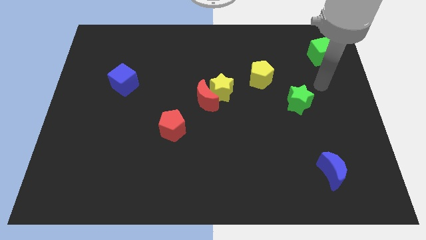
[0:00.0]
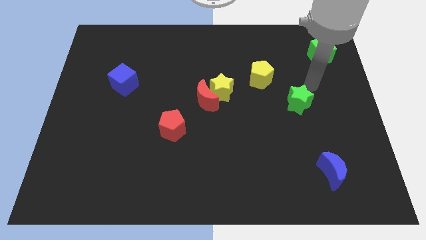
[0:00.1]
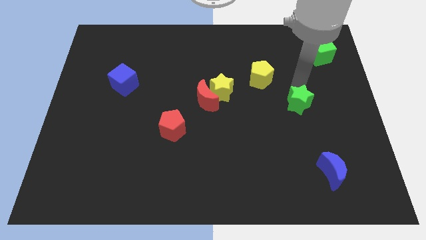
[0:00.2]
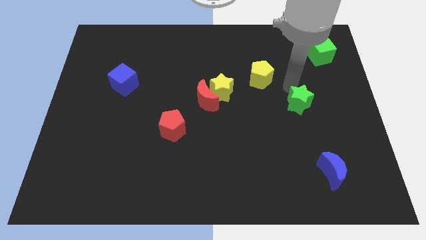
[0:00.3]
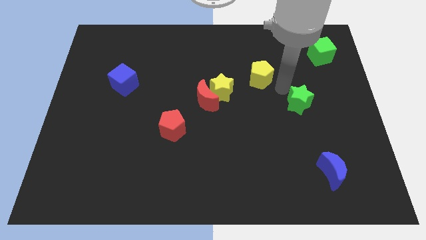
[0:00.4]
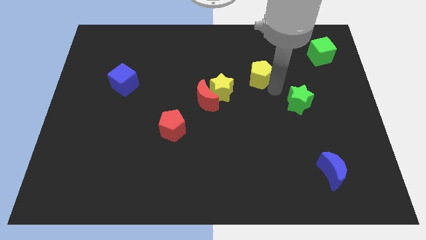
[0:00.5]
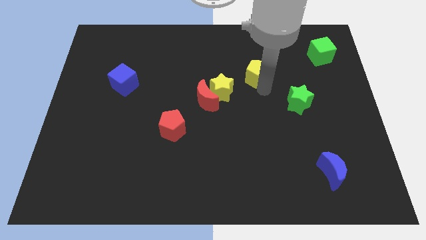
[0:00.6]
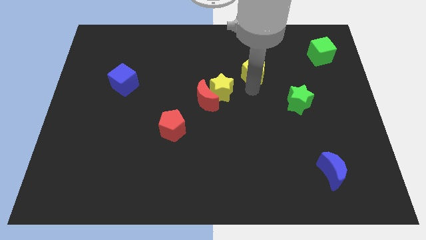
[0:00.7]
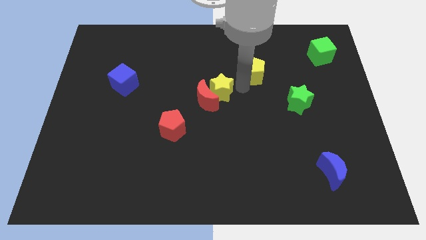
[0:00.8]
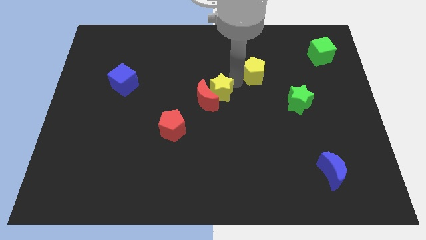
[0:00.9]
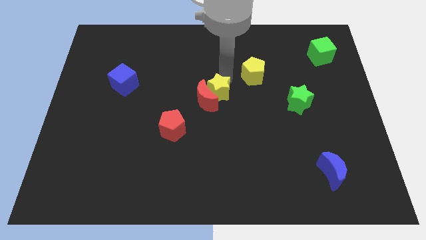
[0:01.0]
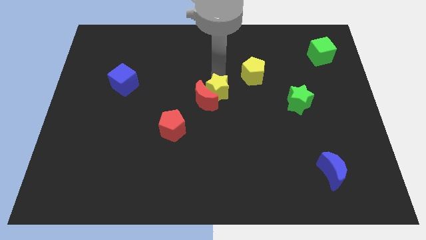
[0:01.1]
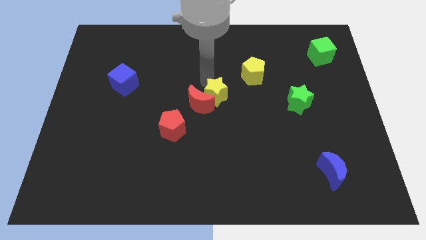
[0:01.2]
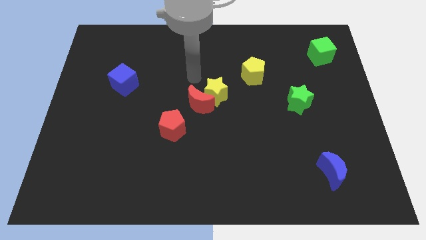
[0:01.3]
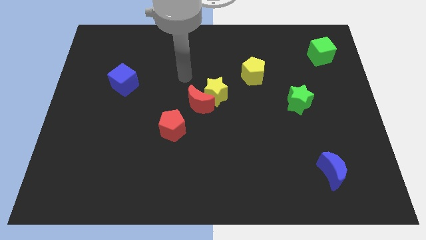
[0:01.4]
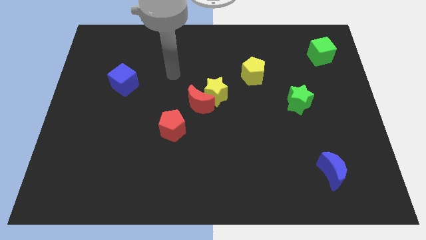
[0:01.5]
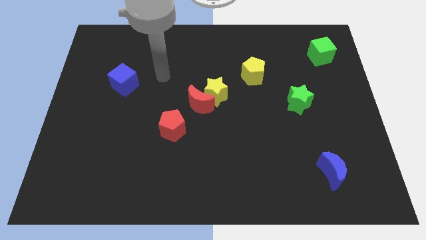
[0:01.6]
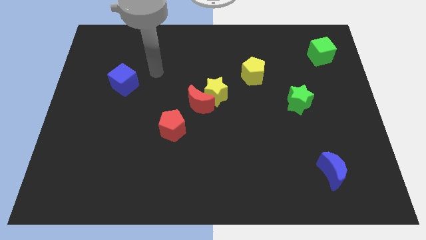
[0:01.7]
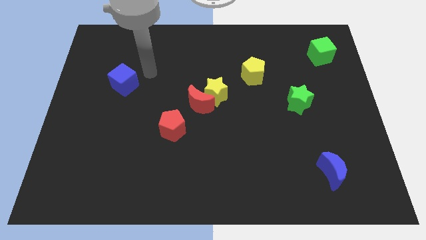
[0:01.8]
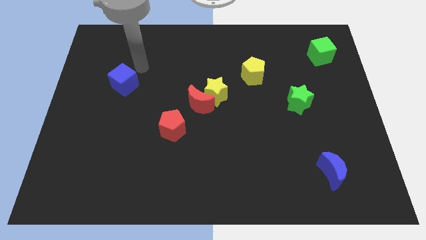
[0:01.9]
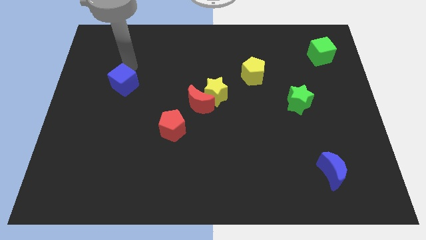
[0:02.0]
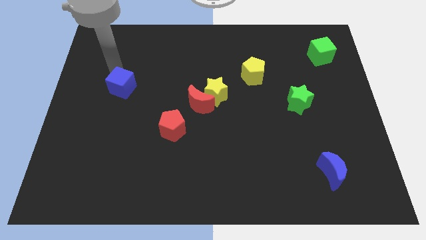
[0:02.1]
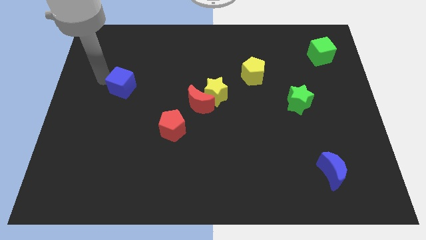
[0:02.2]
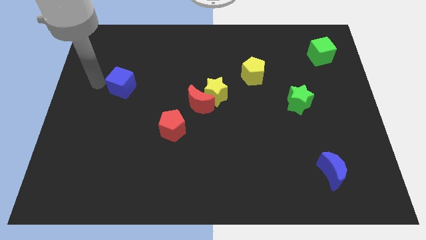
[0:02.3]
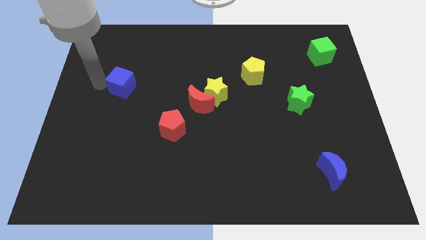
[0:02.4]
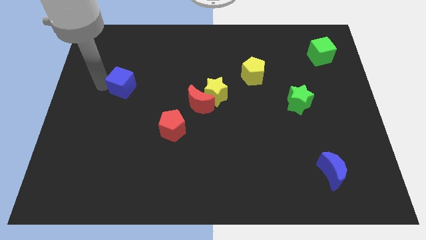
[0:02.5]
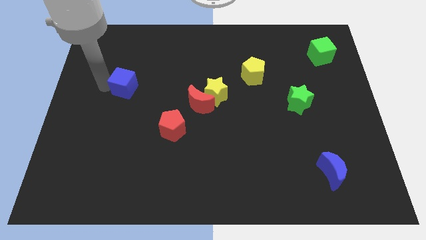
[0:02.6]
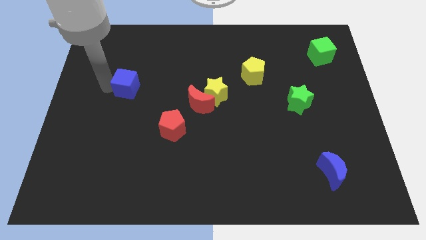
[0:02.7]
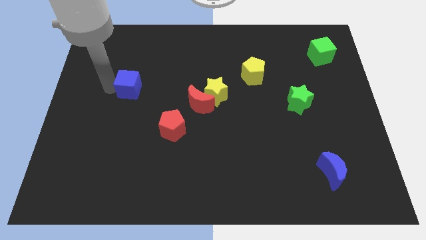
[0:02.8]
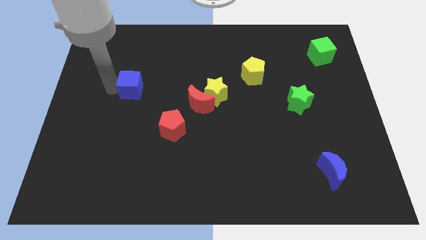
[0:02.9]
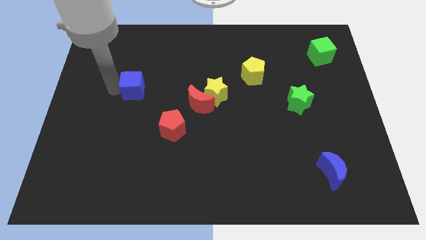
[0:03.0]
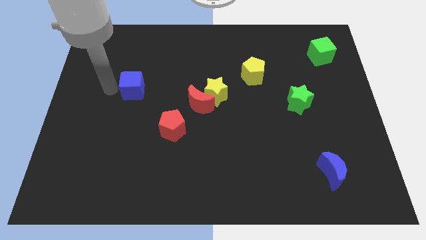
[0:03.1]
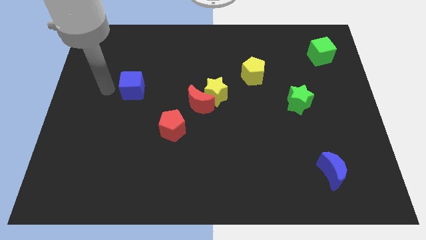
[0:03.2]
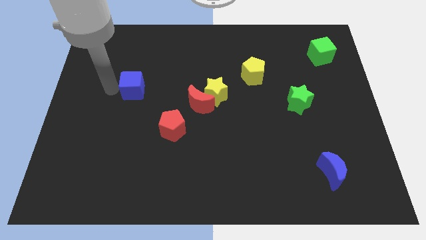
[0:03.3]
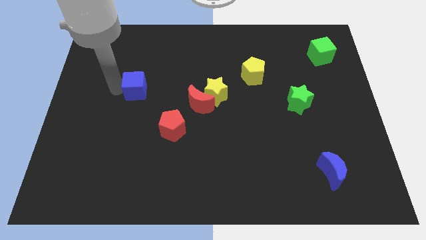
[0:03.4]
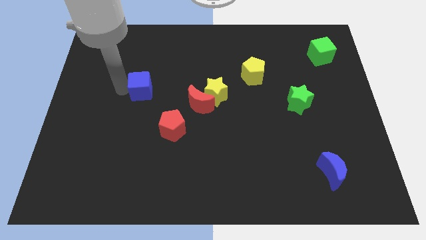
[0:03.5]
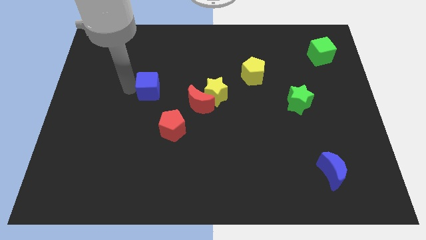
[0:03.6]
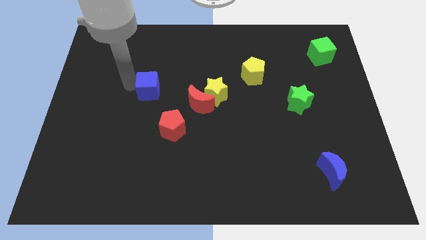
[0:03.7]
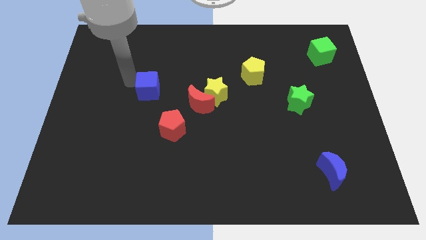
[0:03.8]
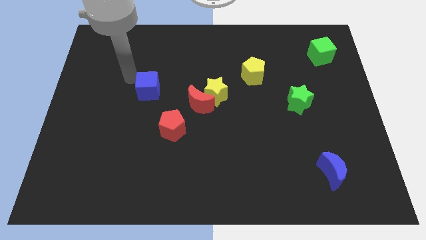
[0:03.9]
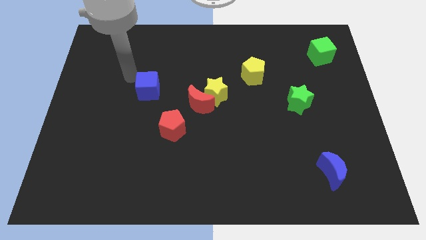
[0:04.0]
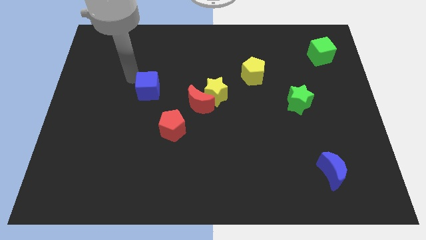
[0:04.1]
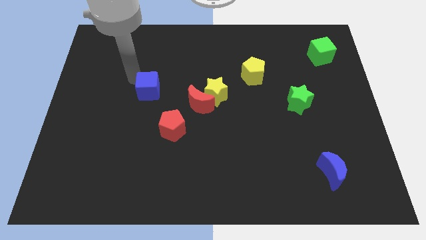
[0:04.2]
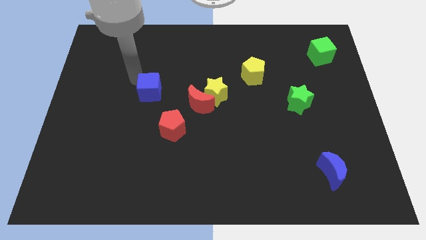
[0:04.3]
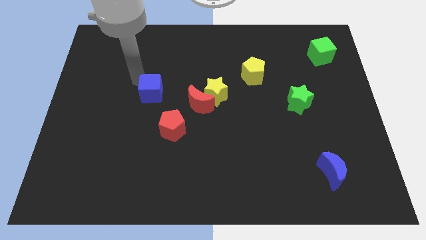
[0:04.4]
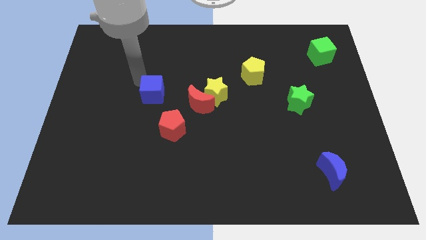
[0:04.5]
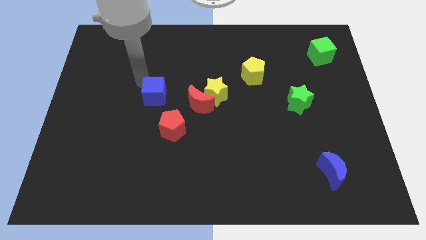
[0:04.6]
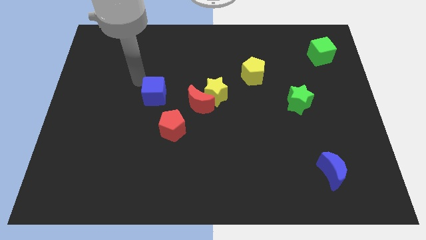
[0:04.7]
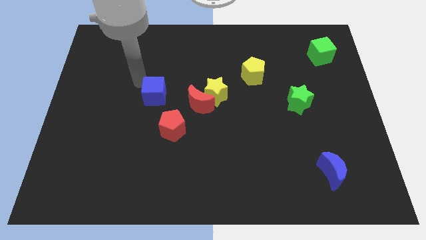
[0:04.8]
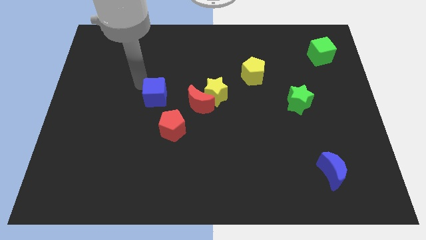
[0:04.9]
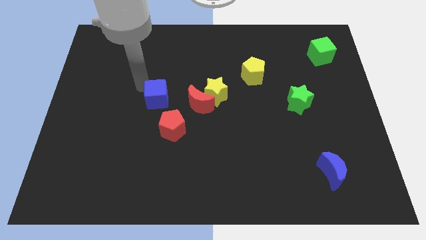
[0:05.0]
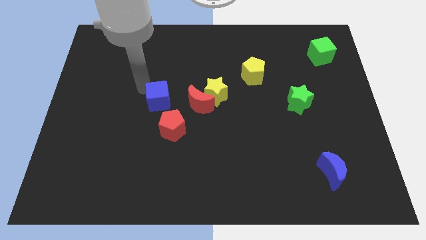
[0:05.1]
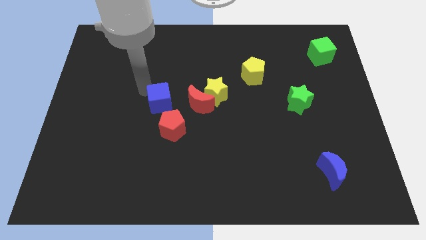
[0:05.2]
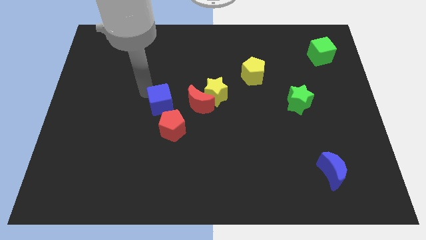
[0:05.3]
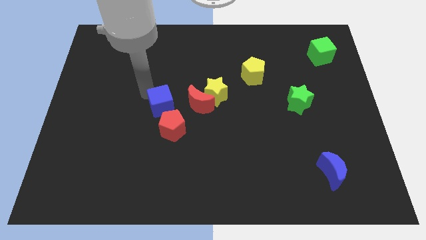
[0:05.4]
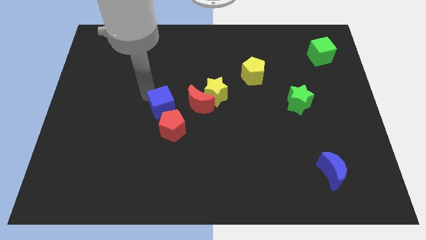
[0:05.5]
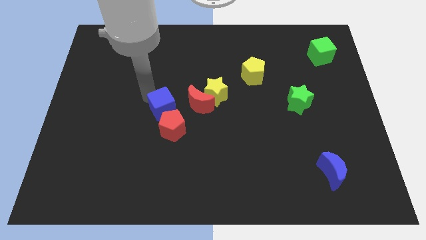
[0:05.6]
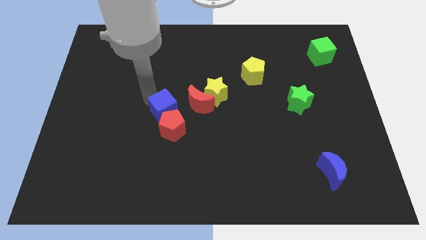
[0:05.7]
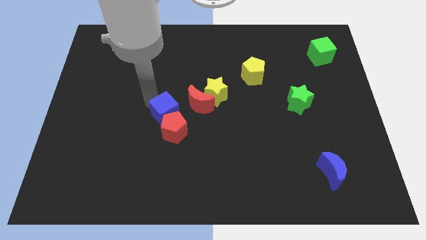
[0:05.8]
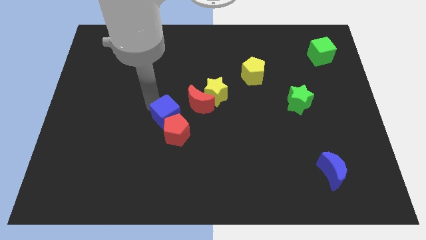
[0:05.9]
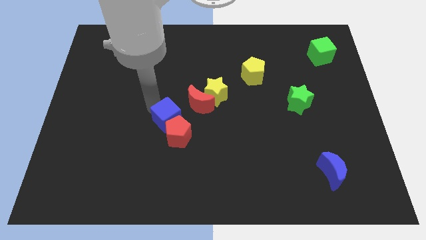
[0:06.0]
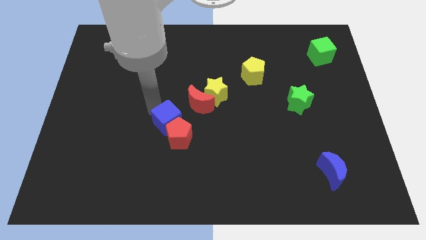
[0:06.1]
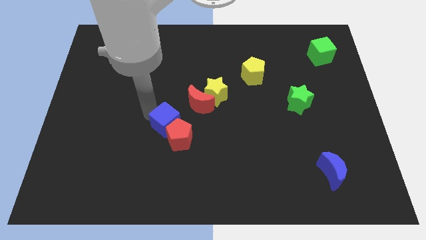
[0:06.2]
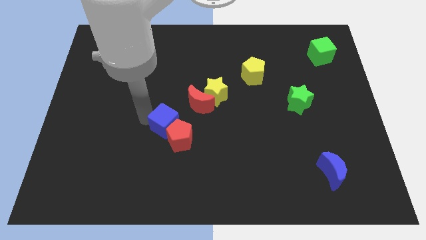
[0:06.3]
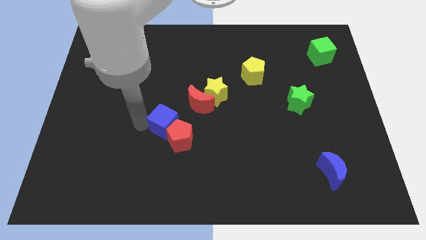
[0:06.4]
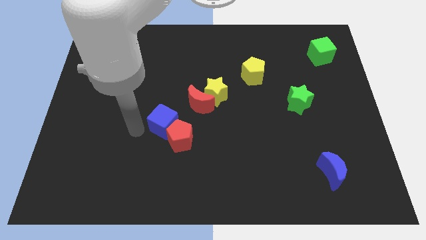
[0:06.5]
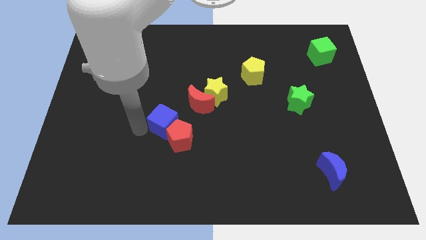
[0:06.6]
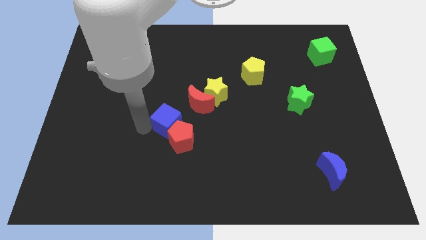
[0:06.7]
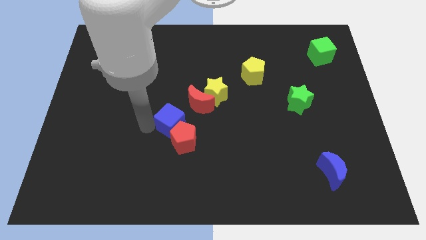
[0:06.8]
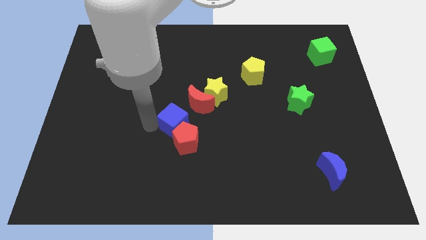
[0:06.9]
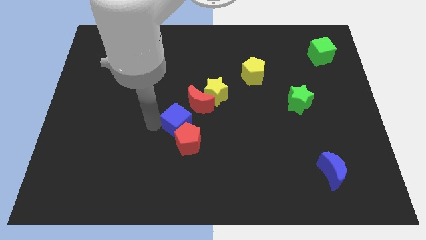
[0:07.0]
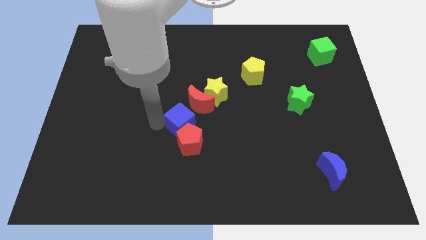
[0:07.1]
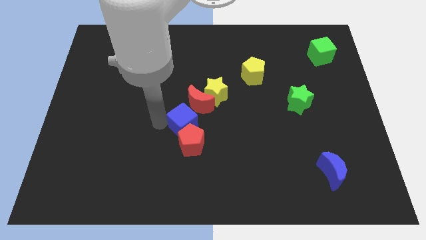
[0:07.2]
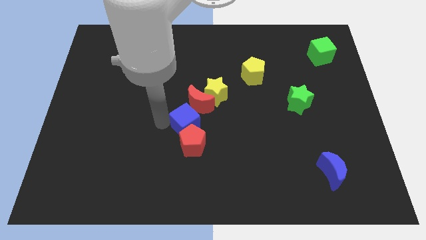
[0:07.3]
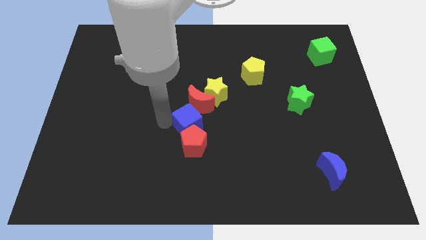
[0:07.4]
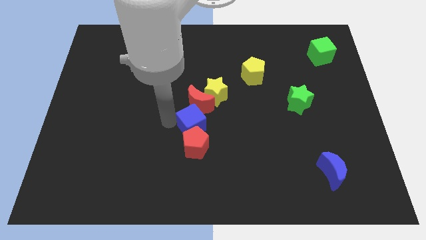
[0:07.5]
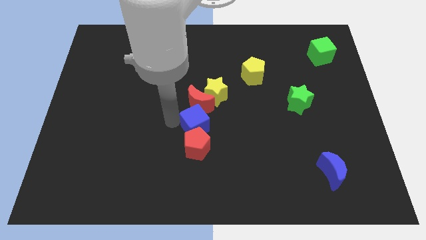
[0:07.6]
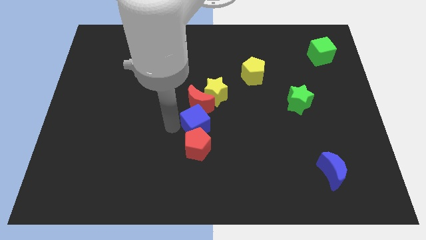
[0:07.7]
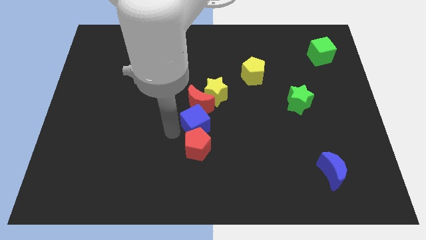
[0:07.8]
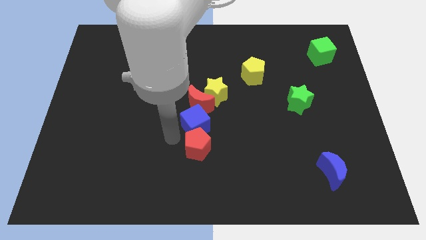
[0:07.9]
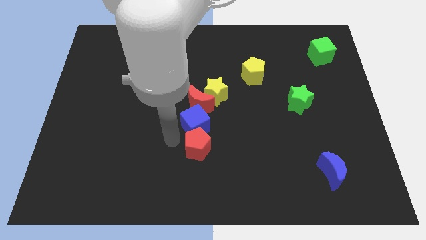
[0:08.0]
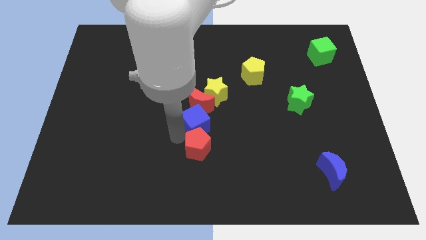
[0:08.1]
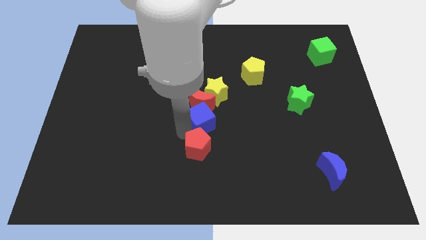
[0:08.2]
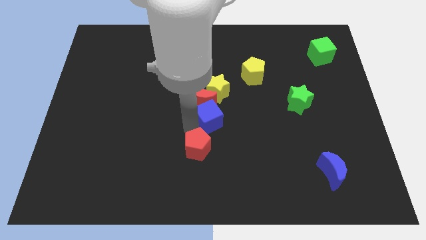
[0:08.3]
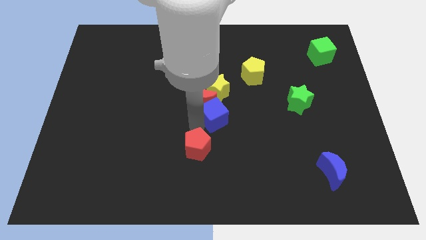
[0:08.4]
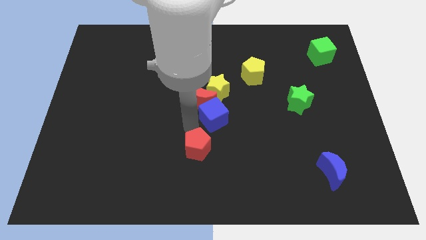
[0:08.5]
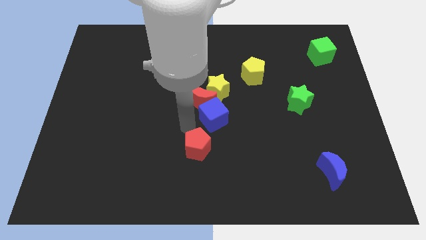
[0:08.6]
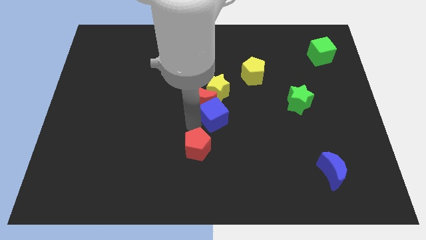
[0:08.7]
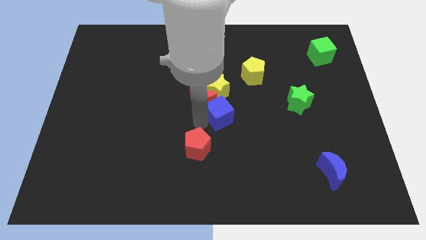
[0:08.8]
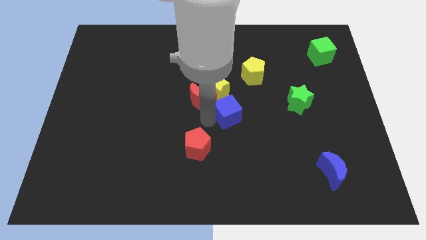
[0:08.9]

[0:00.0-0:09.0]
slide the blue cube to the bottom right of the yellow star
